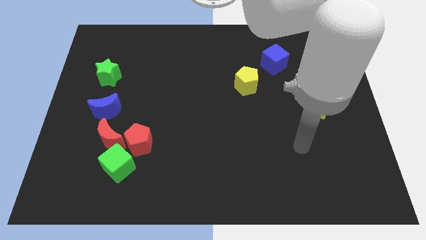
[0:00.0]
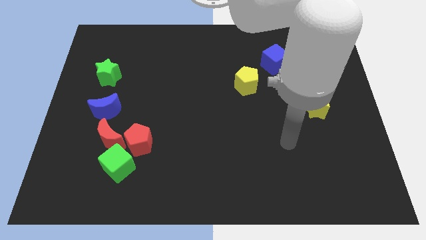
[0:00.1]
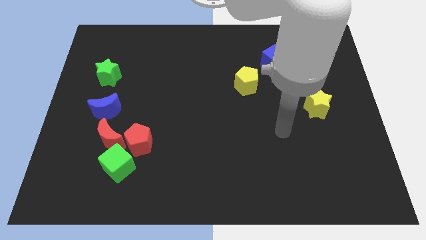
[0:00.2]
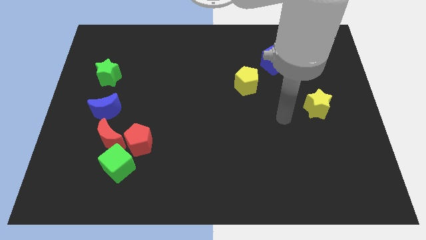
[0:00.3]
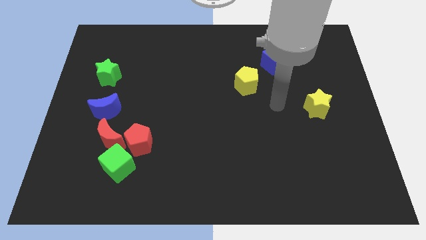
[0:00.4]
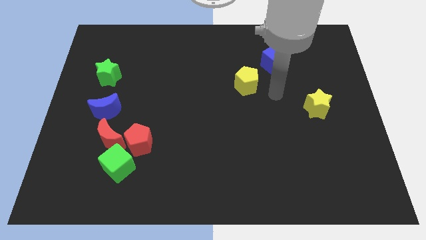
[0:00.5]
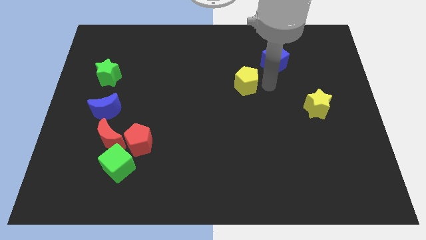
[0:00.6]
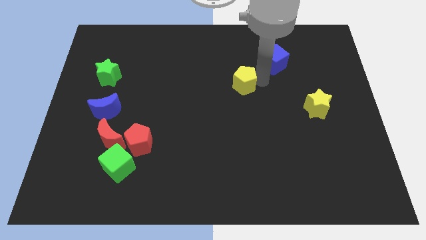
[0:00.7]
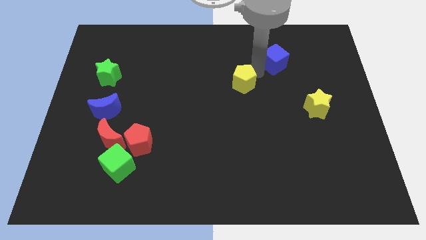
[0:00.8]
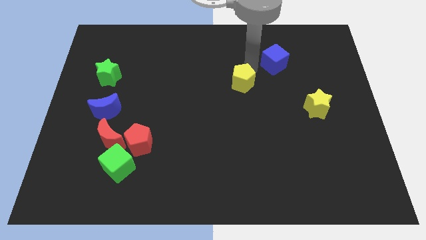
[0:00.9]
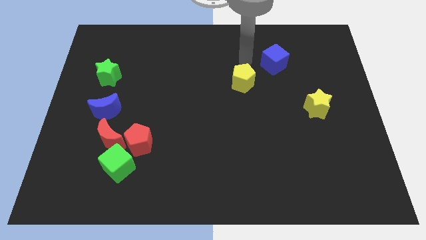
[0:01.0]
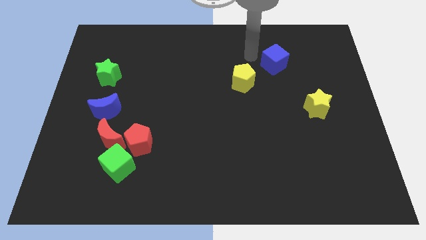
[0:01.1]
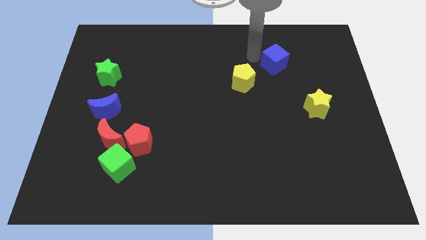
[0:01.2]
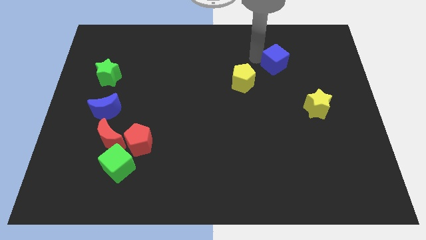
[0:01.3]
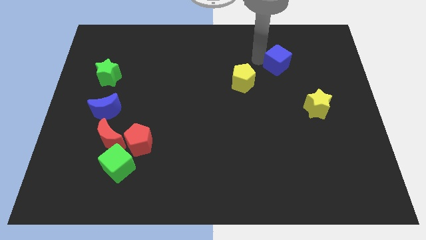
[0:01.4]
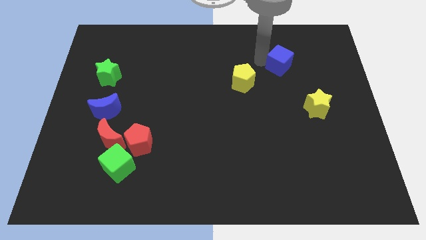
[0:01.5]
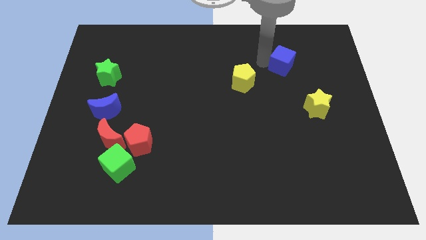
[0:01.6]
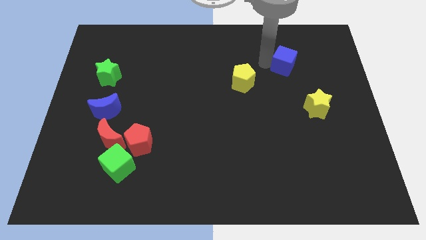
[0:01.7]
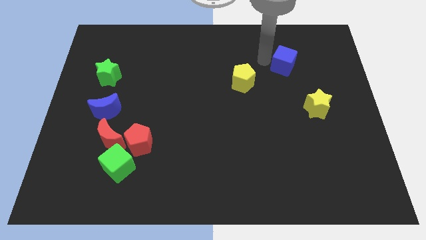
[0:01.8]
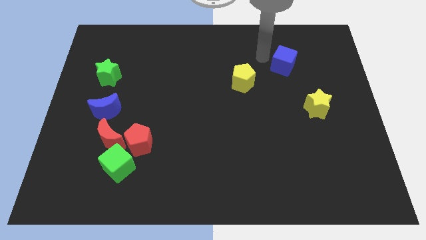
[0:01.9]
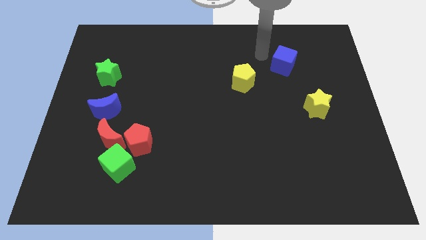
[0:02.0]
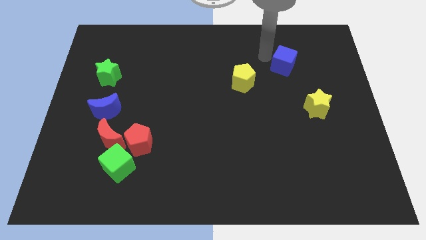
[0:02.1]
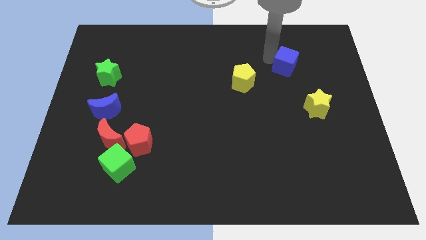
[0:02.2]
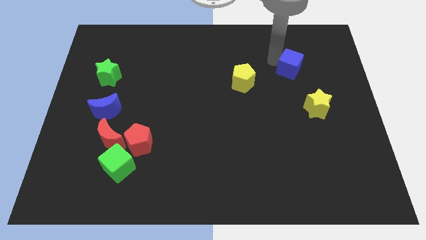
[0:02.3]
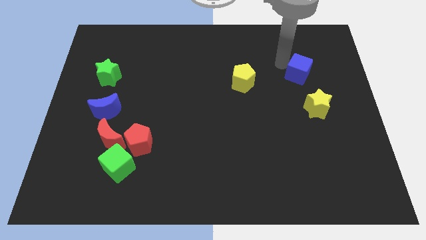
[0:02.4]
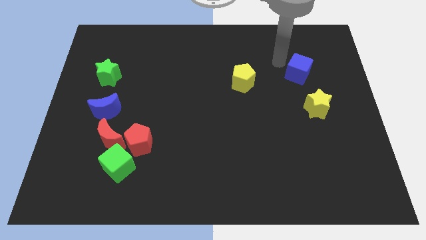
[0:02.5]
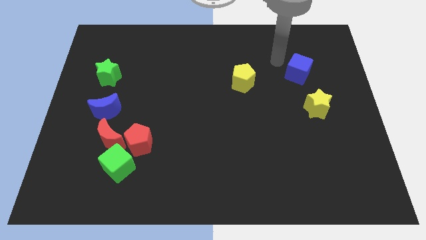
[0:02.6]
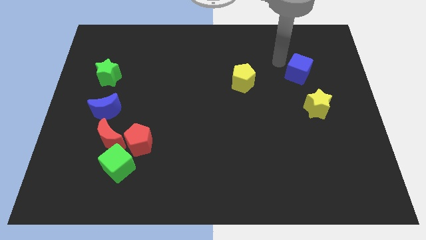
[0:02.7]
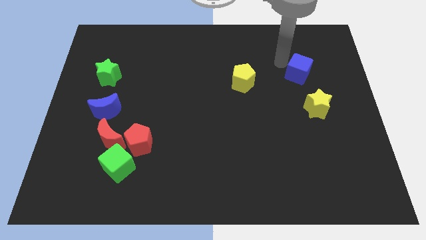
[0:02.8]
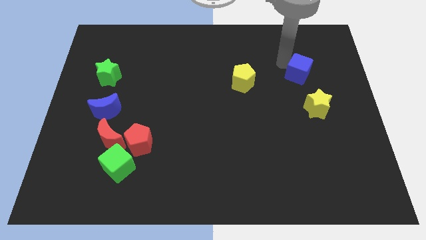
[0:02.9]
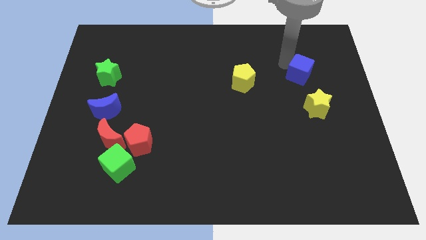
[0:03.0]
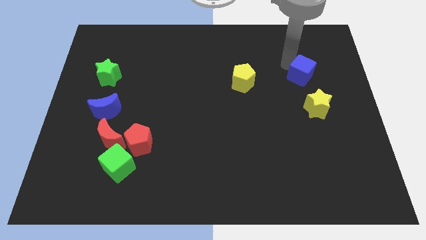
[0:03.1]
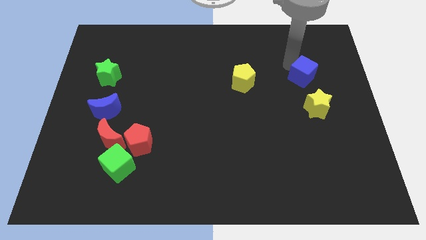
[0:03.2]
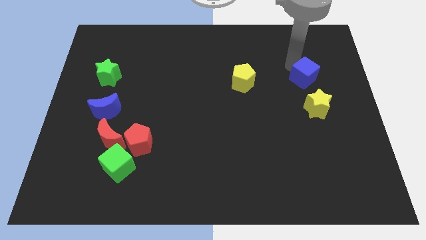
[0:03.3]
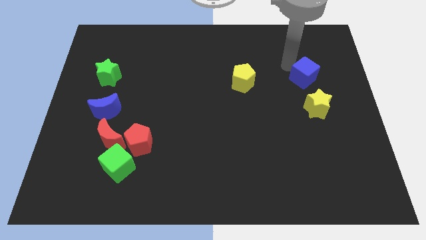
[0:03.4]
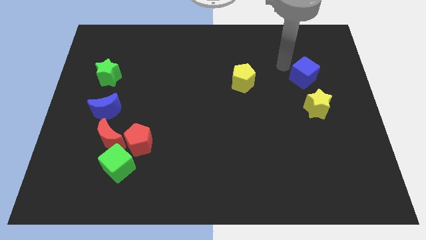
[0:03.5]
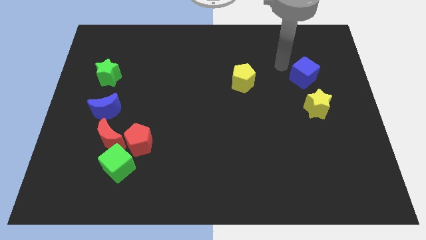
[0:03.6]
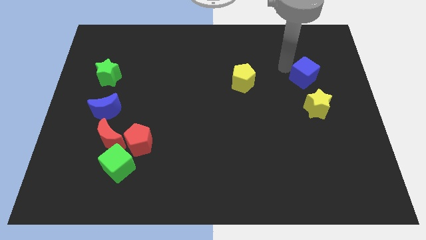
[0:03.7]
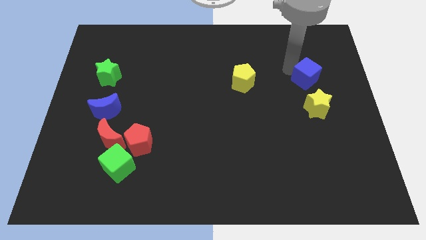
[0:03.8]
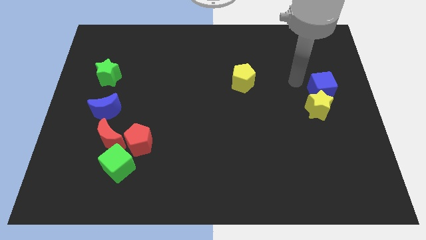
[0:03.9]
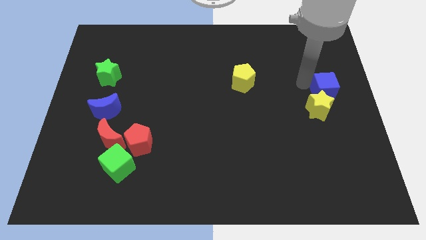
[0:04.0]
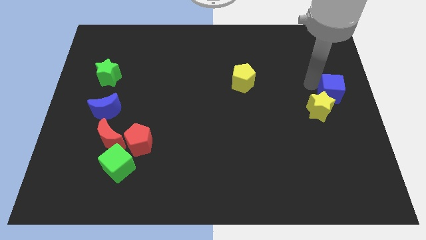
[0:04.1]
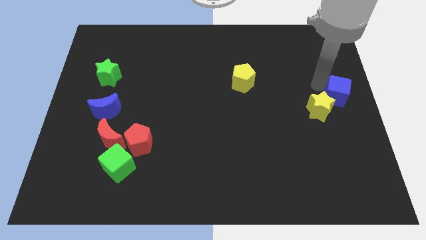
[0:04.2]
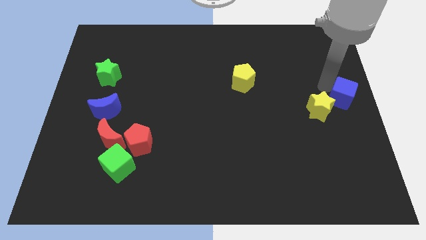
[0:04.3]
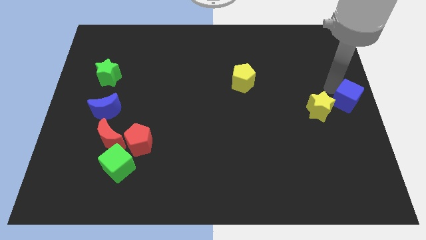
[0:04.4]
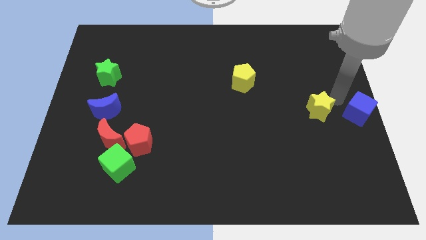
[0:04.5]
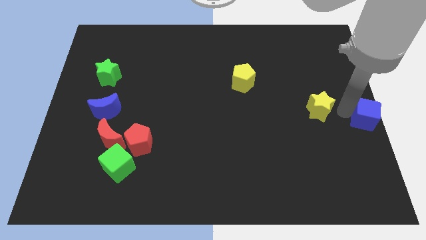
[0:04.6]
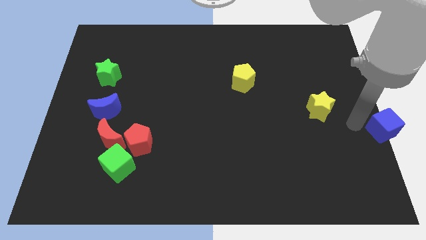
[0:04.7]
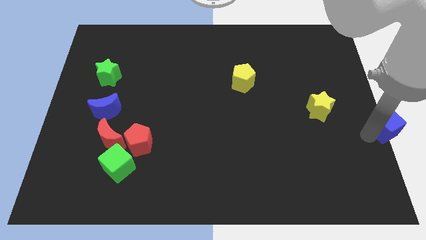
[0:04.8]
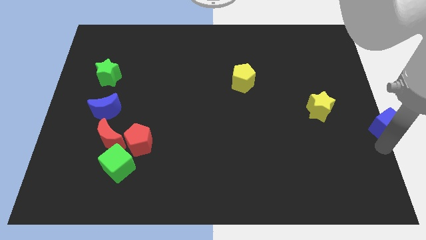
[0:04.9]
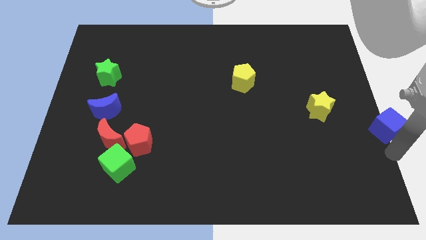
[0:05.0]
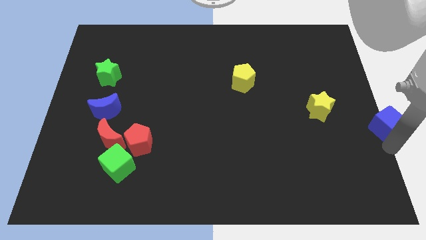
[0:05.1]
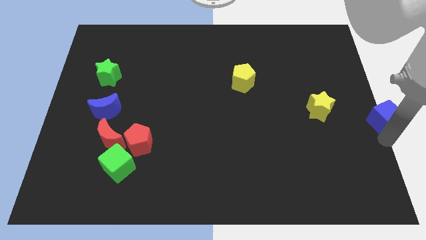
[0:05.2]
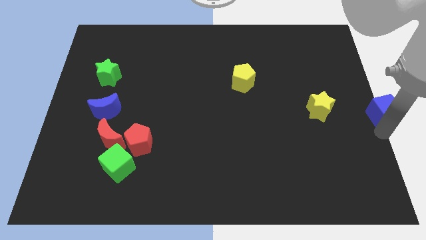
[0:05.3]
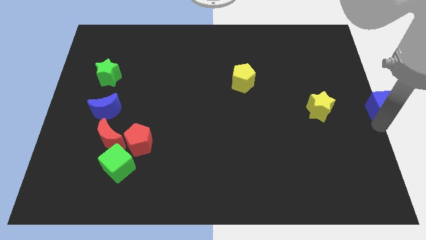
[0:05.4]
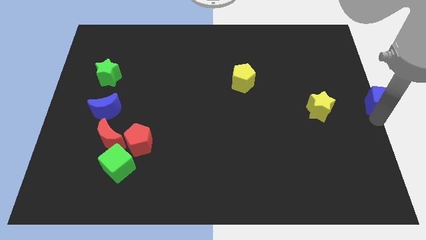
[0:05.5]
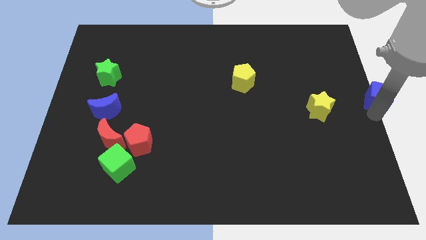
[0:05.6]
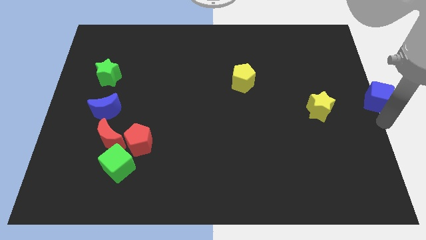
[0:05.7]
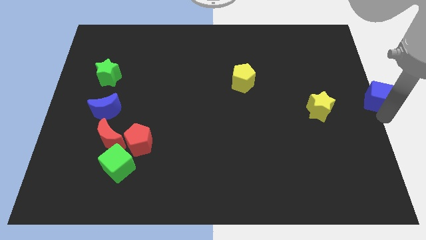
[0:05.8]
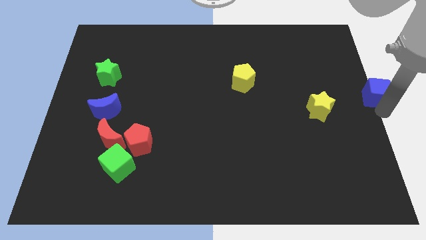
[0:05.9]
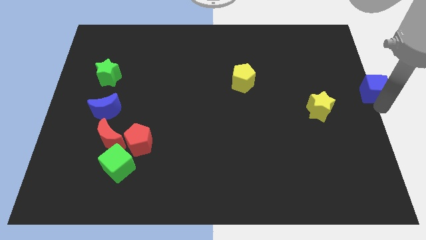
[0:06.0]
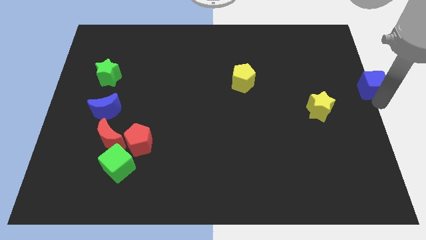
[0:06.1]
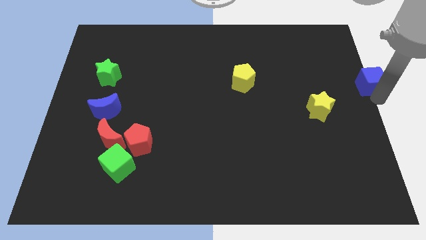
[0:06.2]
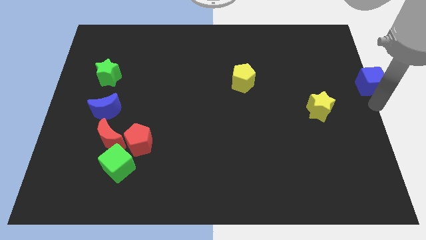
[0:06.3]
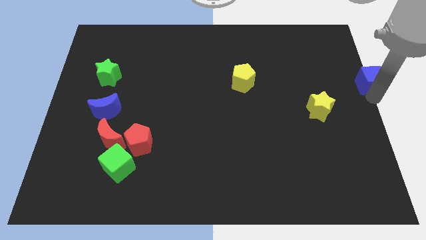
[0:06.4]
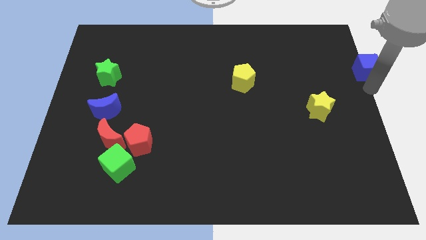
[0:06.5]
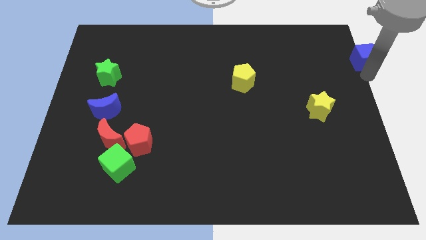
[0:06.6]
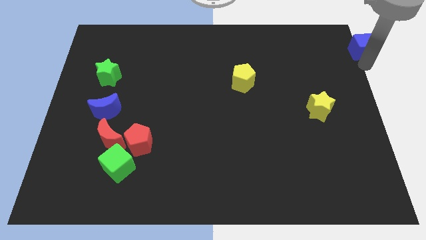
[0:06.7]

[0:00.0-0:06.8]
slide the blue cube to the top right of the board
